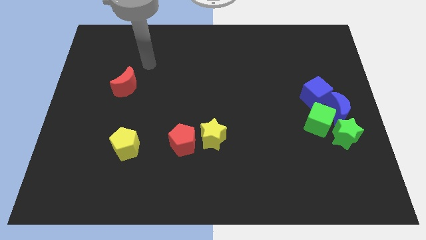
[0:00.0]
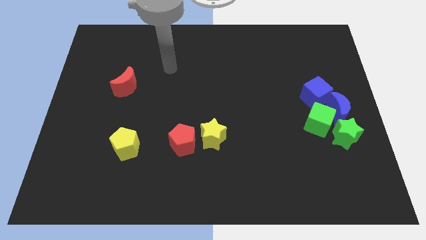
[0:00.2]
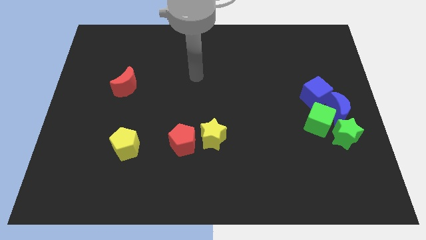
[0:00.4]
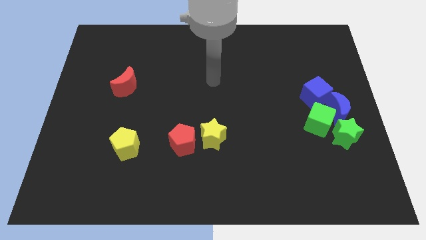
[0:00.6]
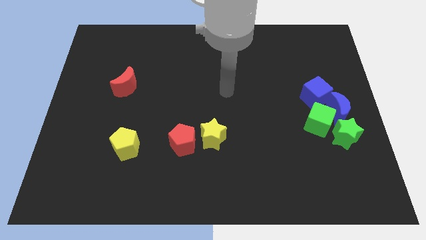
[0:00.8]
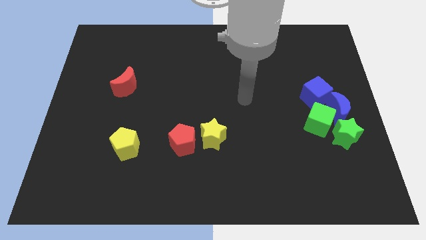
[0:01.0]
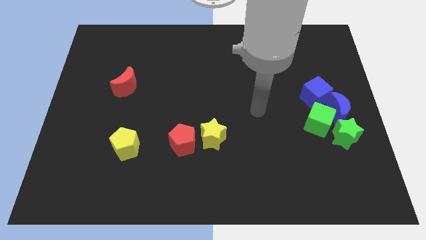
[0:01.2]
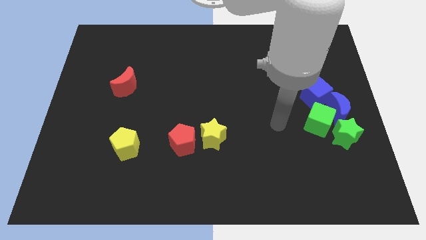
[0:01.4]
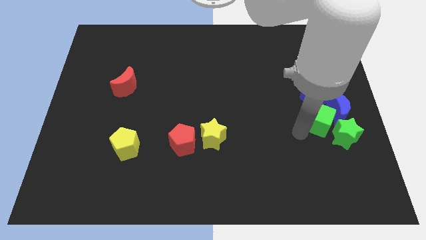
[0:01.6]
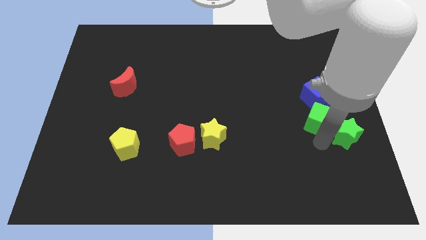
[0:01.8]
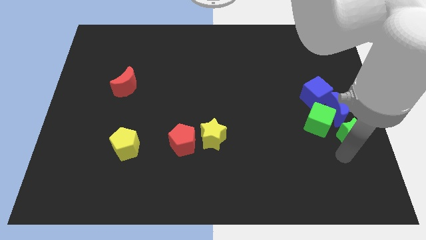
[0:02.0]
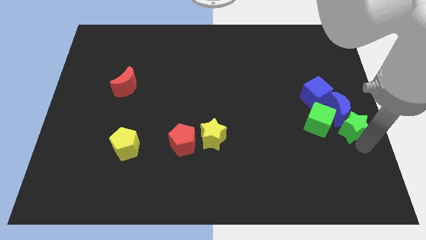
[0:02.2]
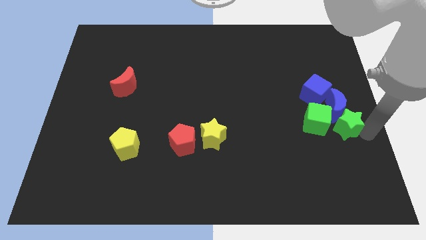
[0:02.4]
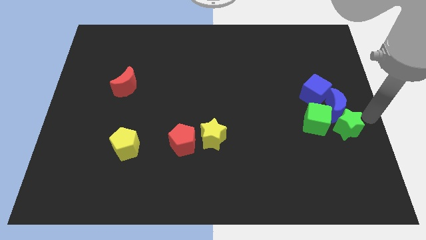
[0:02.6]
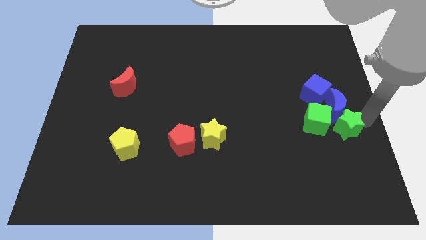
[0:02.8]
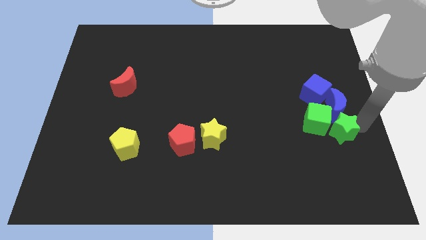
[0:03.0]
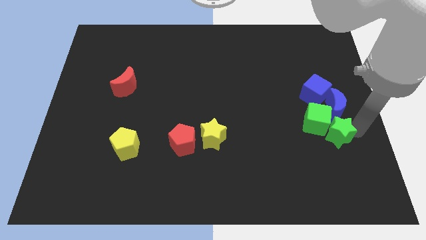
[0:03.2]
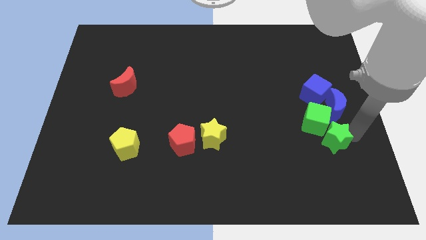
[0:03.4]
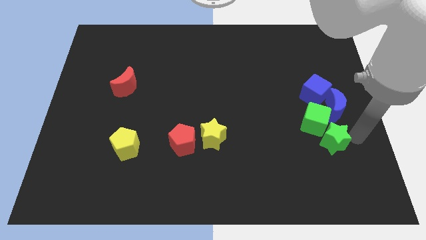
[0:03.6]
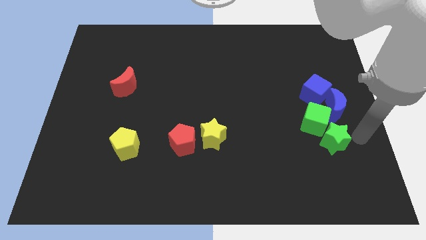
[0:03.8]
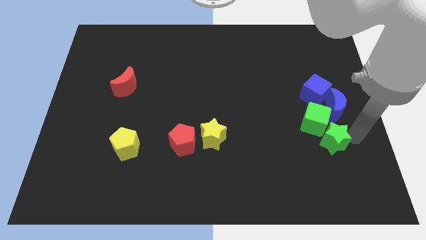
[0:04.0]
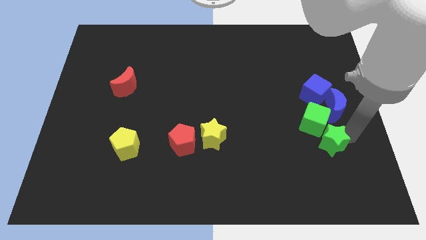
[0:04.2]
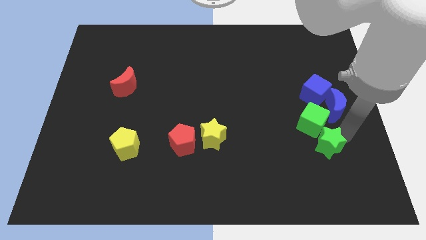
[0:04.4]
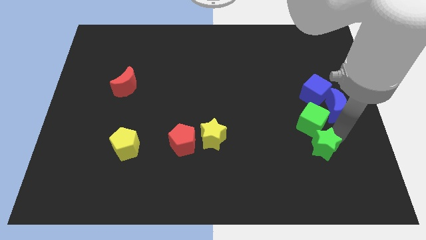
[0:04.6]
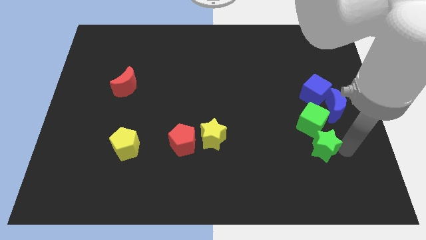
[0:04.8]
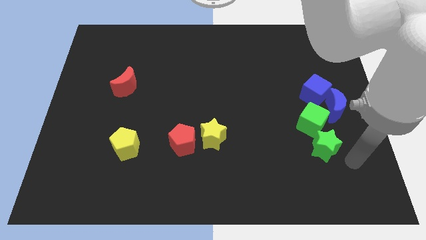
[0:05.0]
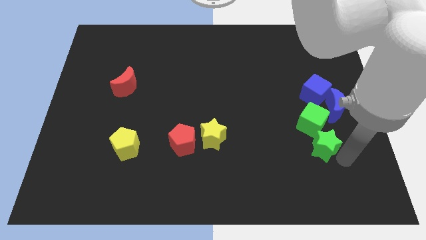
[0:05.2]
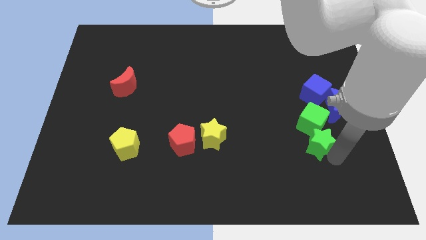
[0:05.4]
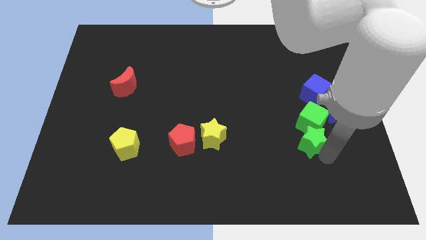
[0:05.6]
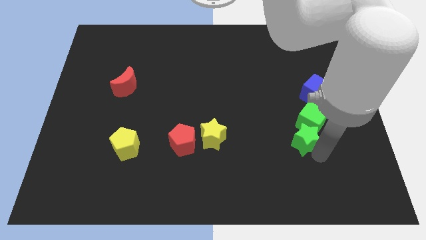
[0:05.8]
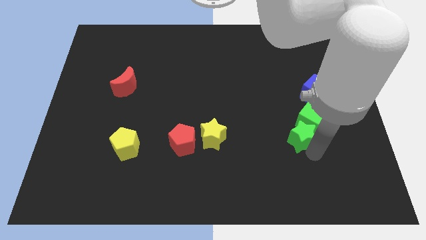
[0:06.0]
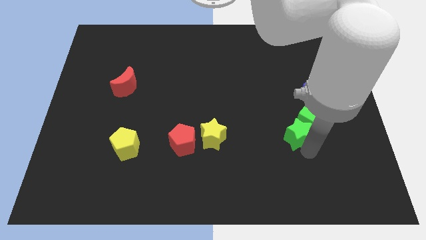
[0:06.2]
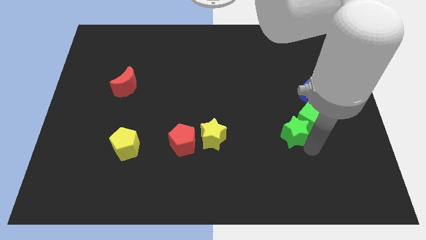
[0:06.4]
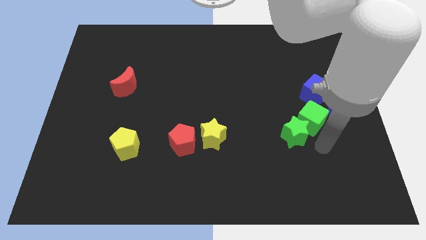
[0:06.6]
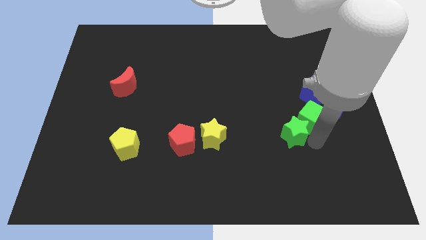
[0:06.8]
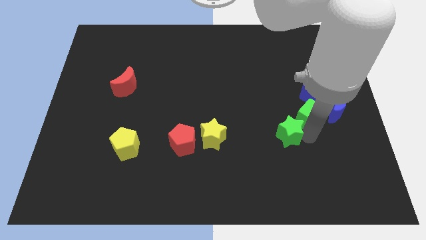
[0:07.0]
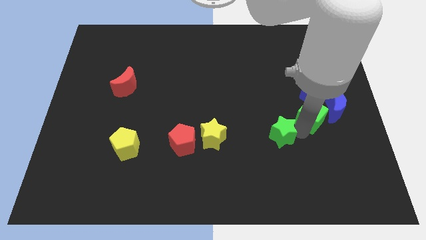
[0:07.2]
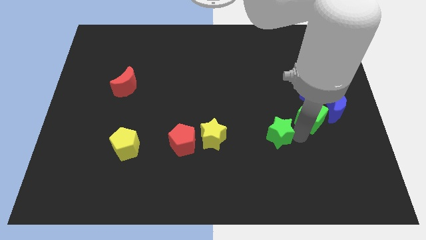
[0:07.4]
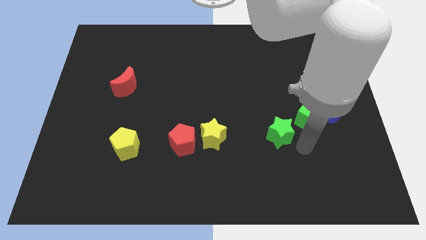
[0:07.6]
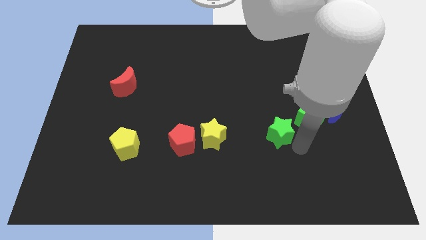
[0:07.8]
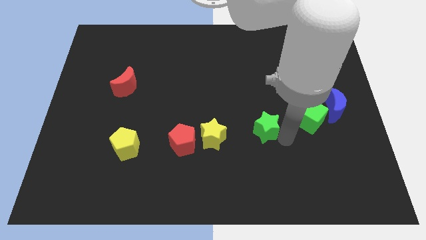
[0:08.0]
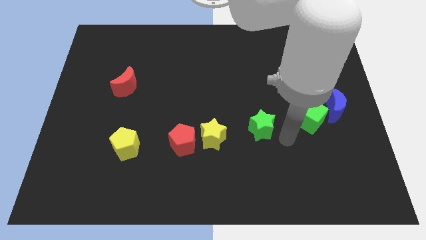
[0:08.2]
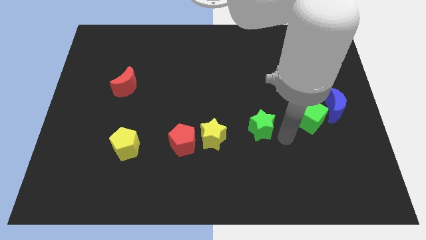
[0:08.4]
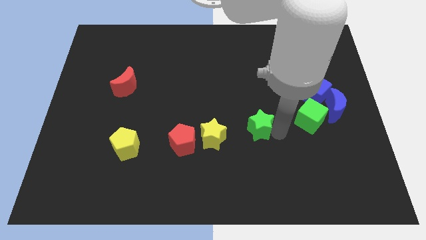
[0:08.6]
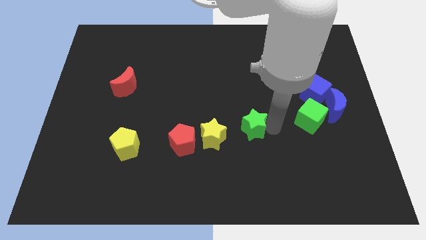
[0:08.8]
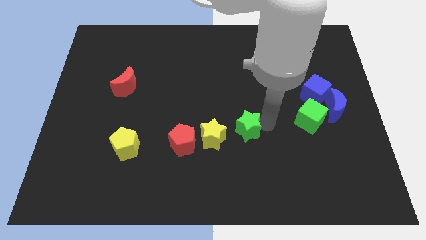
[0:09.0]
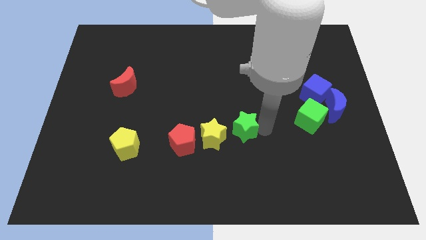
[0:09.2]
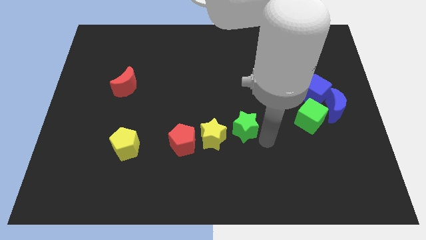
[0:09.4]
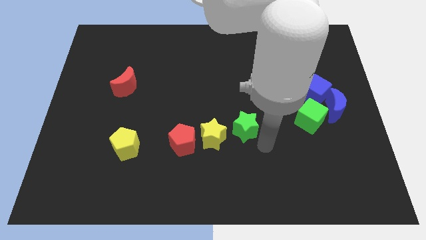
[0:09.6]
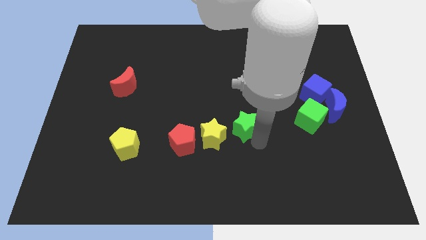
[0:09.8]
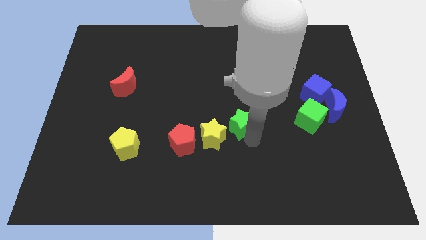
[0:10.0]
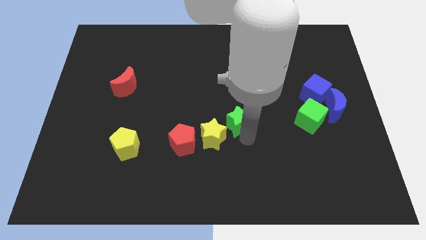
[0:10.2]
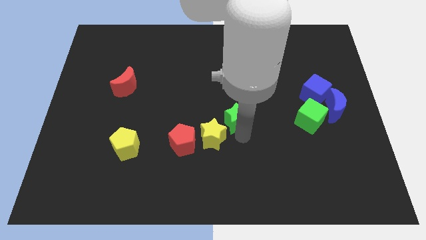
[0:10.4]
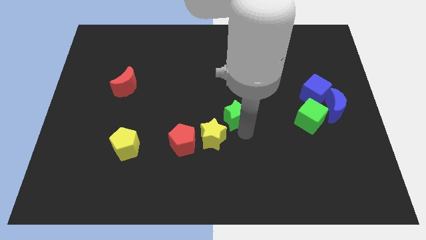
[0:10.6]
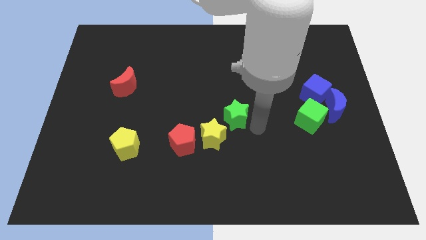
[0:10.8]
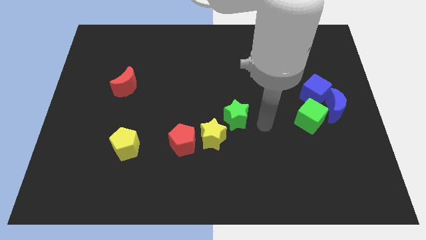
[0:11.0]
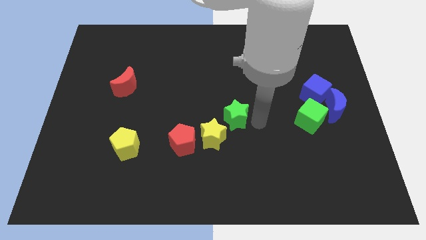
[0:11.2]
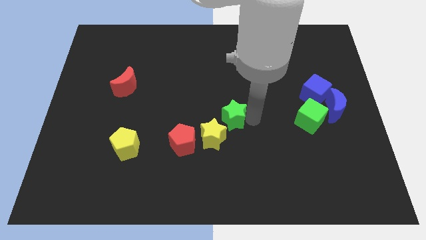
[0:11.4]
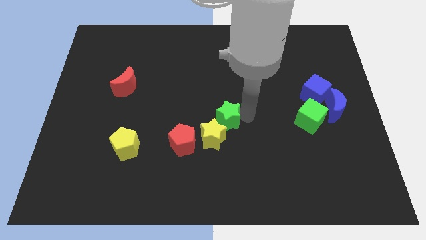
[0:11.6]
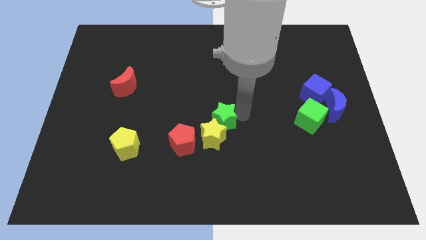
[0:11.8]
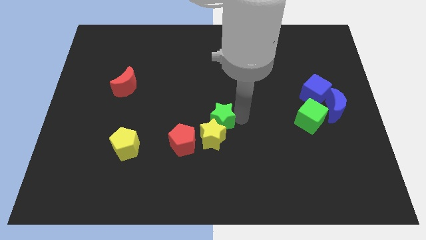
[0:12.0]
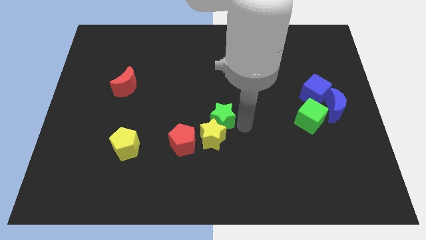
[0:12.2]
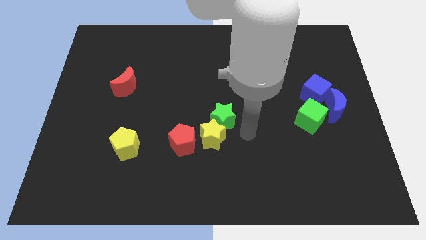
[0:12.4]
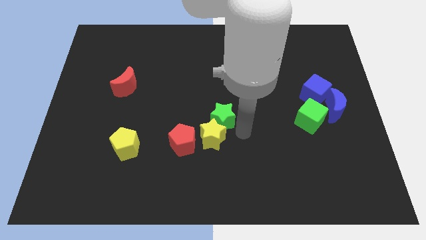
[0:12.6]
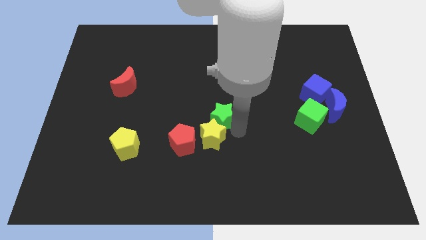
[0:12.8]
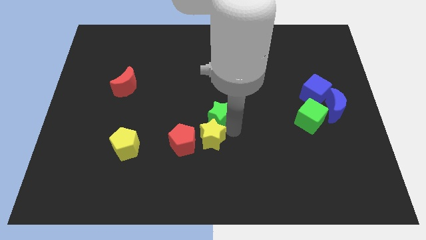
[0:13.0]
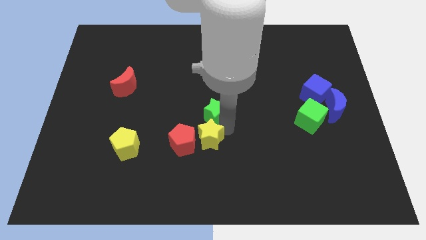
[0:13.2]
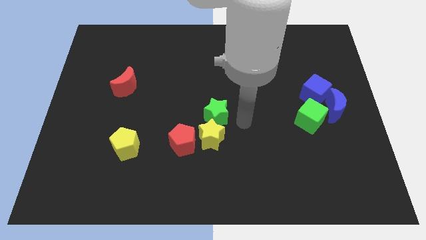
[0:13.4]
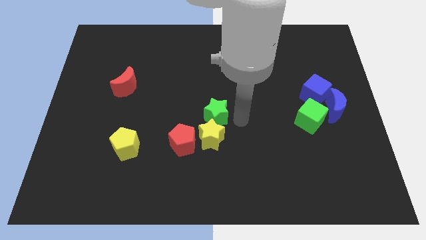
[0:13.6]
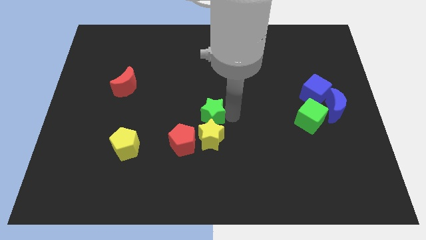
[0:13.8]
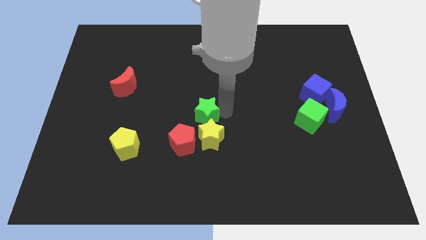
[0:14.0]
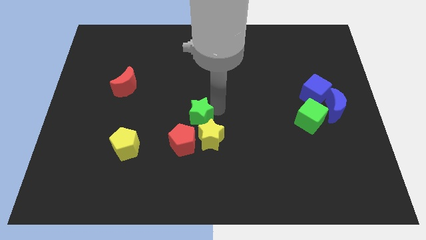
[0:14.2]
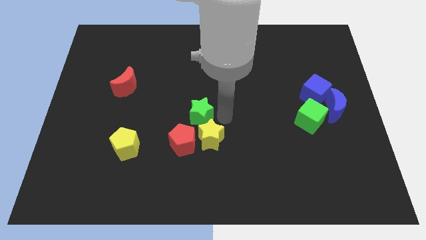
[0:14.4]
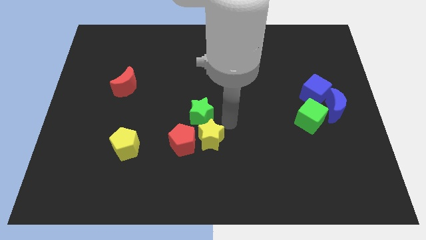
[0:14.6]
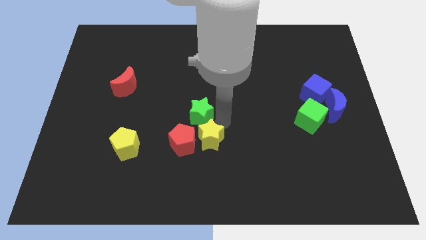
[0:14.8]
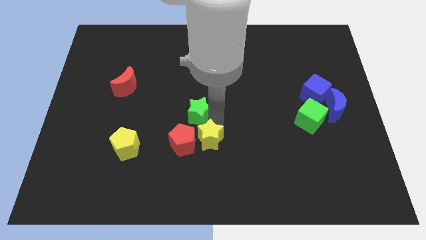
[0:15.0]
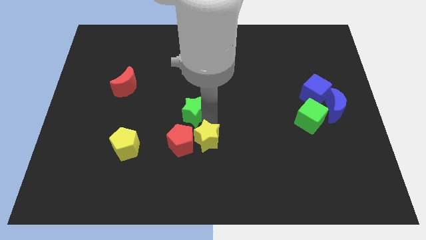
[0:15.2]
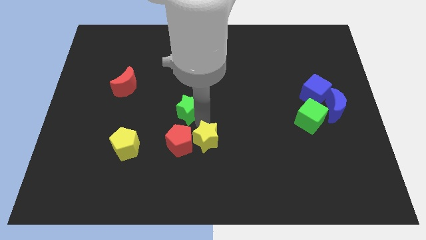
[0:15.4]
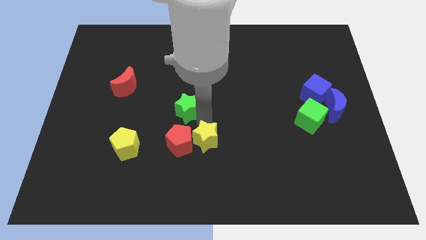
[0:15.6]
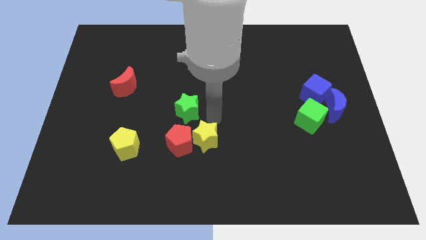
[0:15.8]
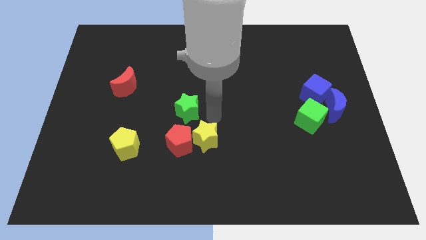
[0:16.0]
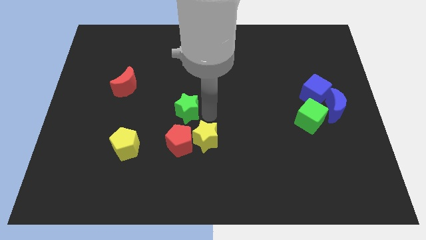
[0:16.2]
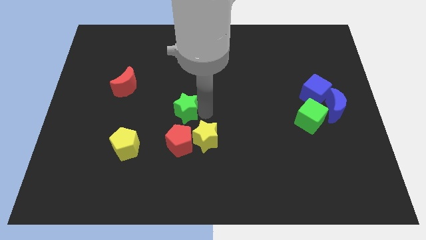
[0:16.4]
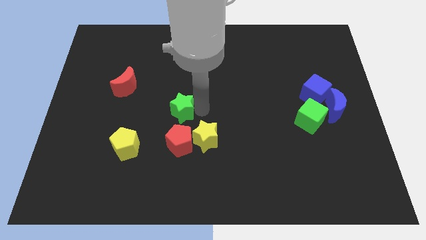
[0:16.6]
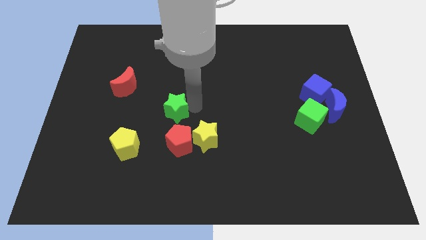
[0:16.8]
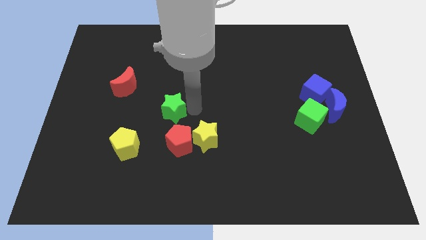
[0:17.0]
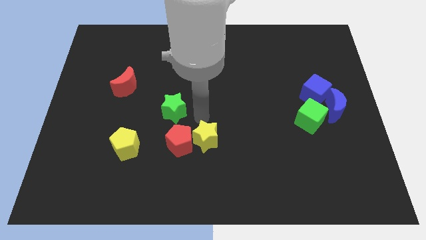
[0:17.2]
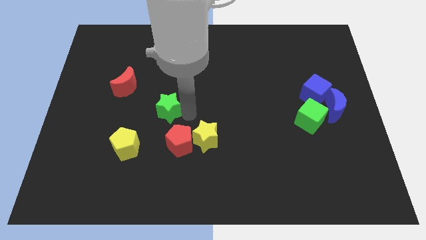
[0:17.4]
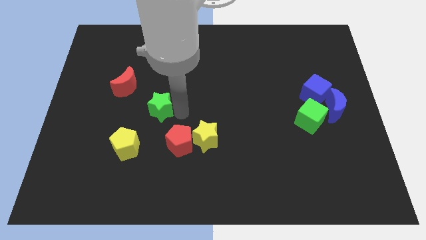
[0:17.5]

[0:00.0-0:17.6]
move the green star to the bottom right of the red moon
